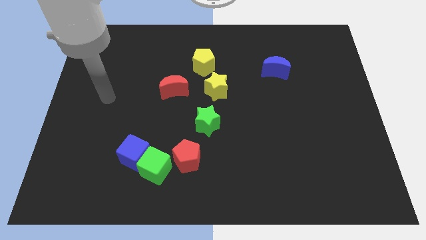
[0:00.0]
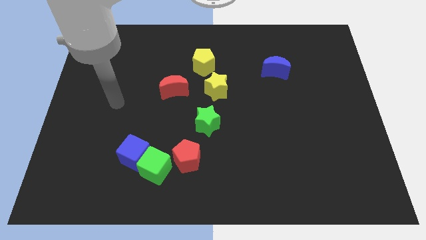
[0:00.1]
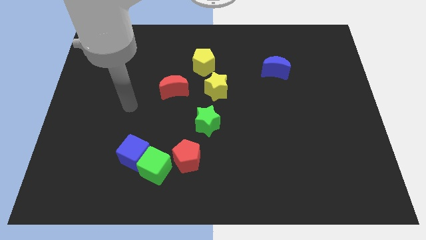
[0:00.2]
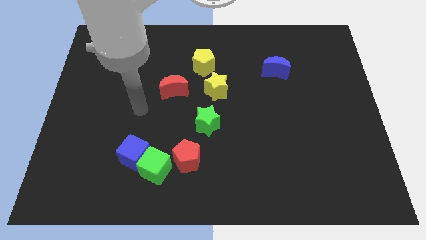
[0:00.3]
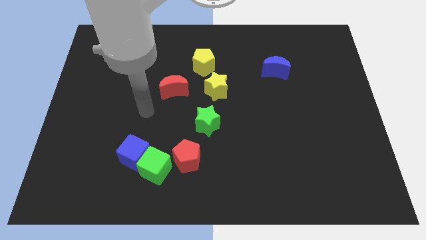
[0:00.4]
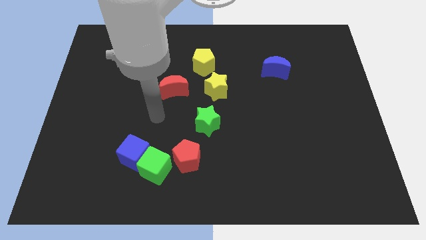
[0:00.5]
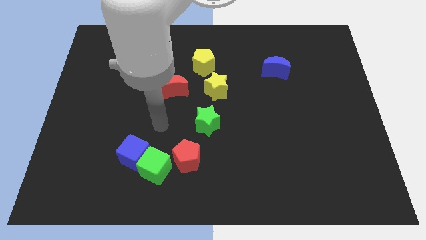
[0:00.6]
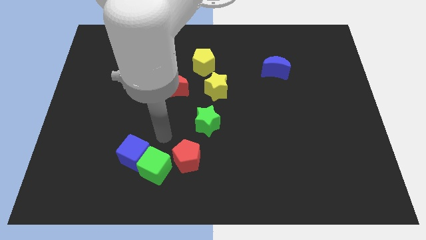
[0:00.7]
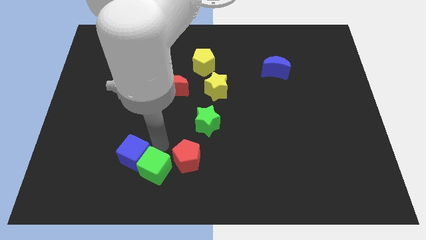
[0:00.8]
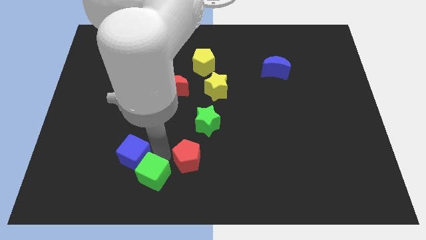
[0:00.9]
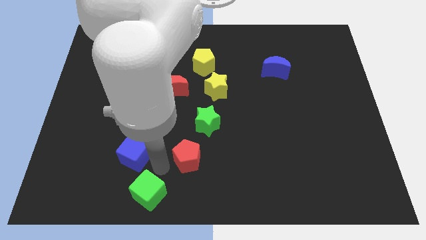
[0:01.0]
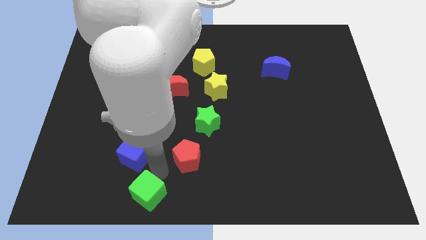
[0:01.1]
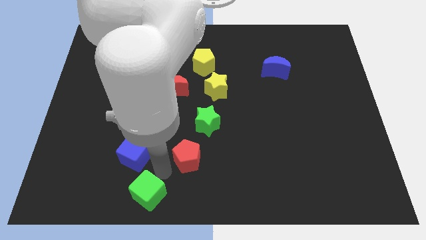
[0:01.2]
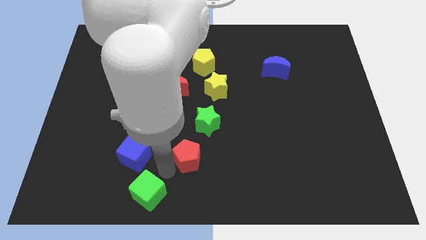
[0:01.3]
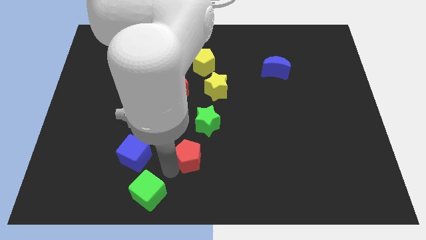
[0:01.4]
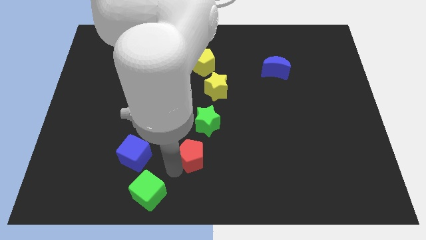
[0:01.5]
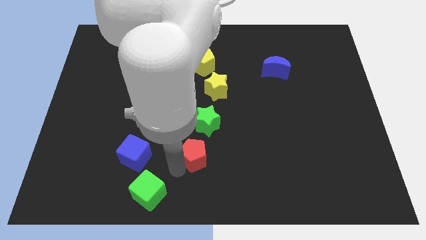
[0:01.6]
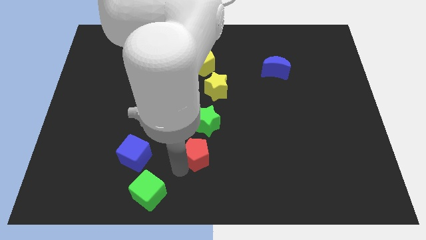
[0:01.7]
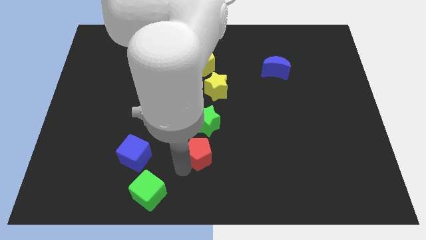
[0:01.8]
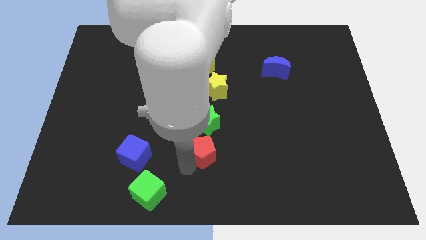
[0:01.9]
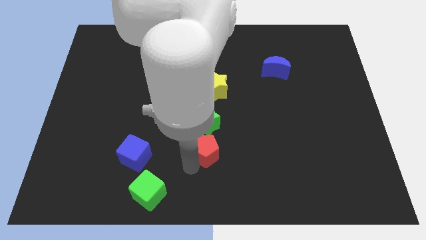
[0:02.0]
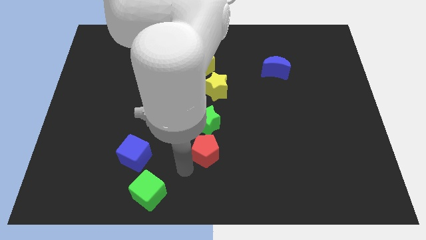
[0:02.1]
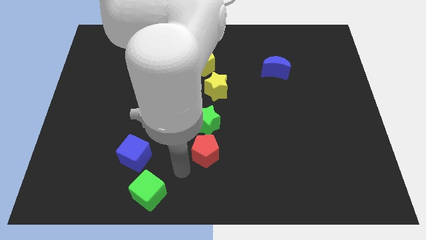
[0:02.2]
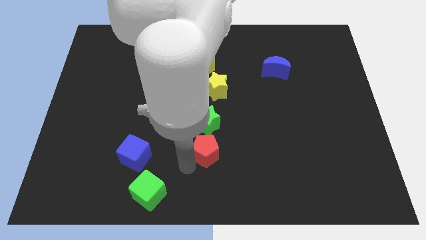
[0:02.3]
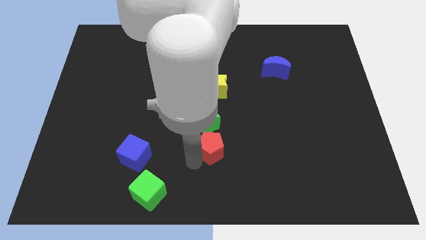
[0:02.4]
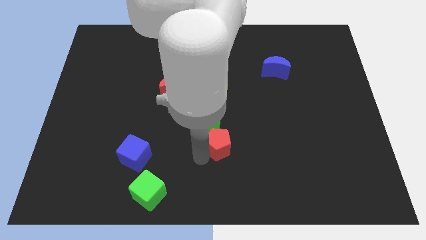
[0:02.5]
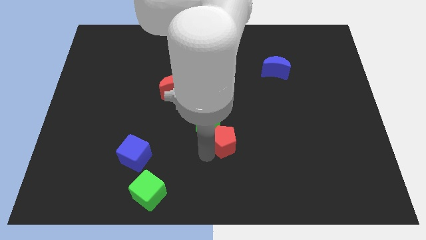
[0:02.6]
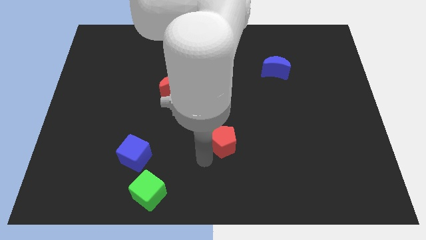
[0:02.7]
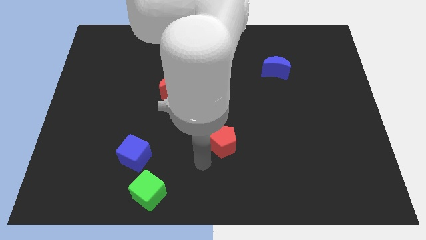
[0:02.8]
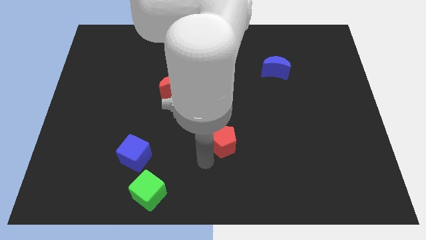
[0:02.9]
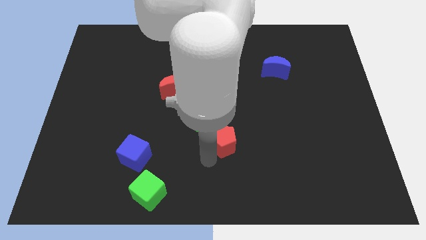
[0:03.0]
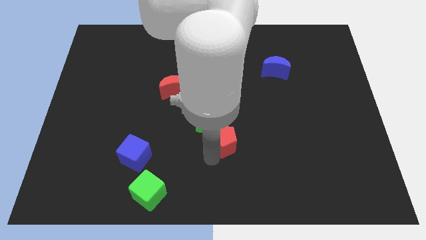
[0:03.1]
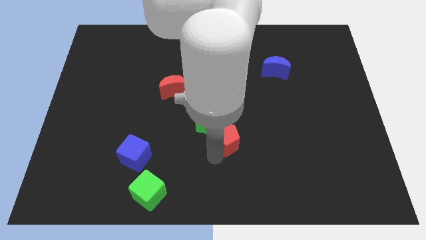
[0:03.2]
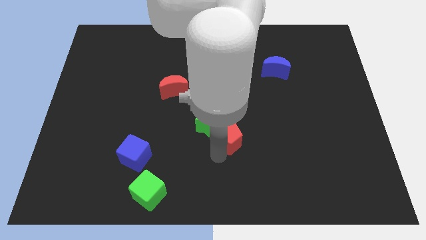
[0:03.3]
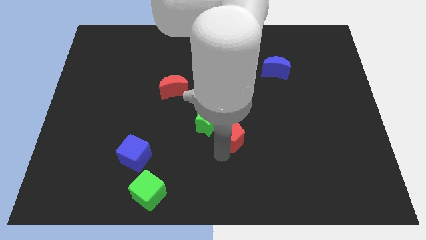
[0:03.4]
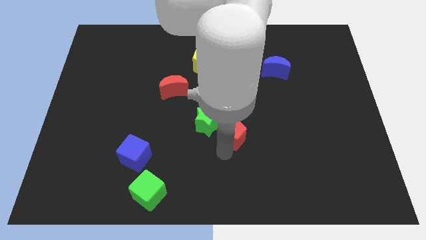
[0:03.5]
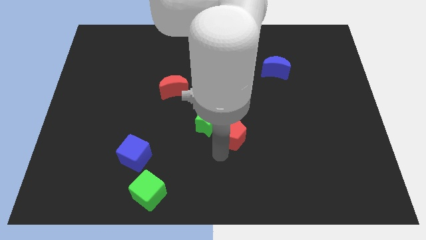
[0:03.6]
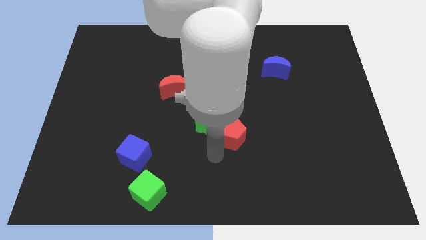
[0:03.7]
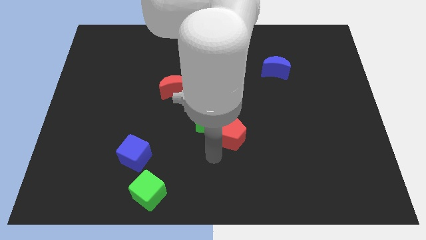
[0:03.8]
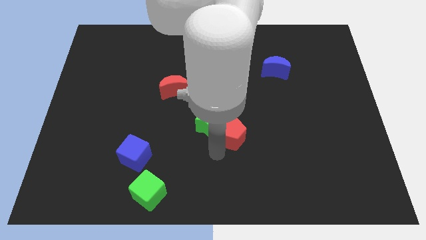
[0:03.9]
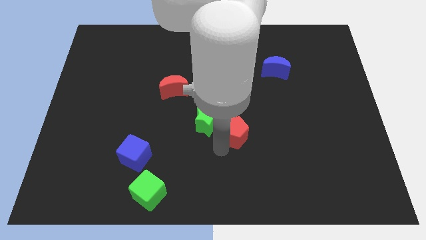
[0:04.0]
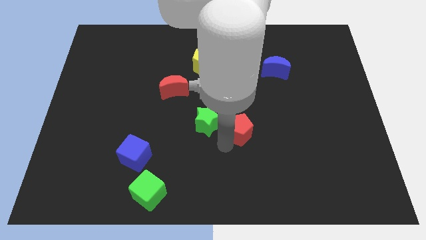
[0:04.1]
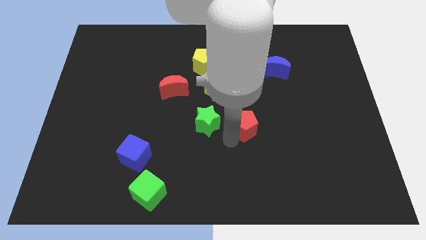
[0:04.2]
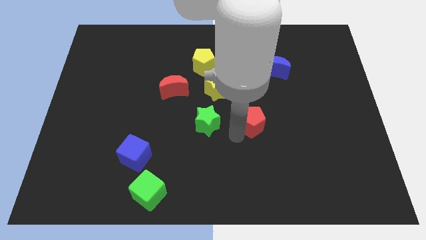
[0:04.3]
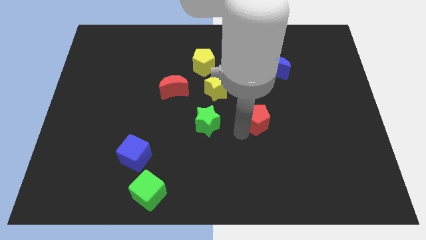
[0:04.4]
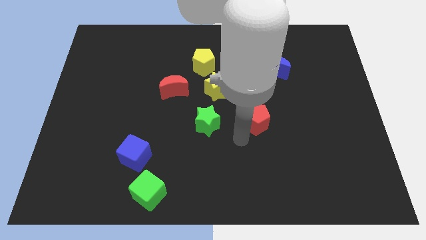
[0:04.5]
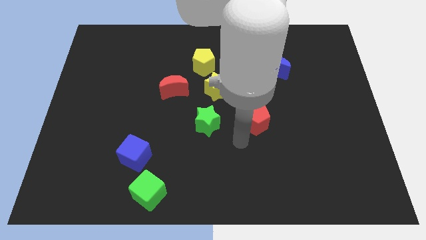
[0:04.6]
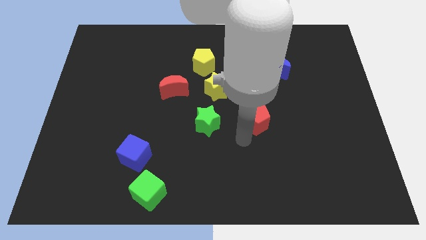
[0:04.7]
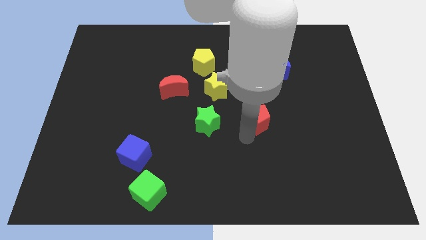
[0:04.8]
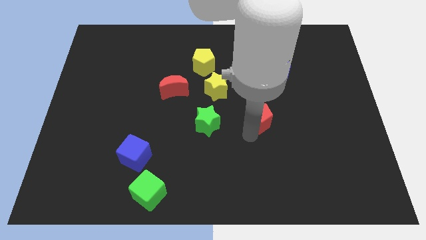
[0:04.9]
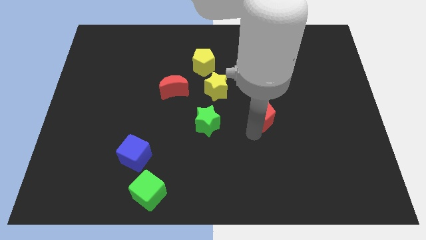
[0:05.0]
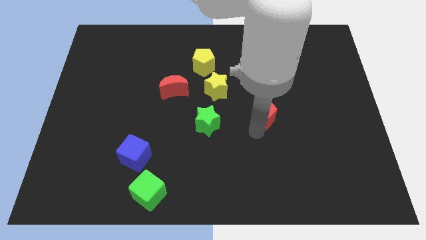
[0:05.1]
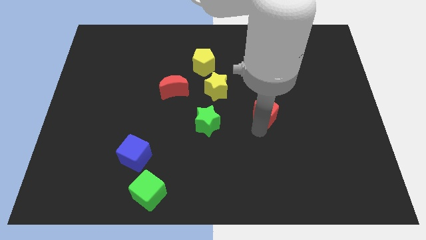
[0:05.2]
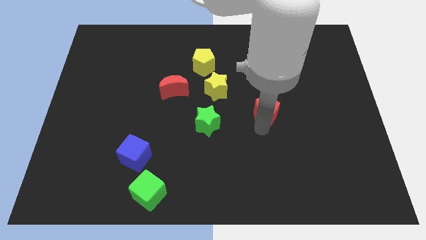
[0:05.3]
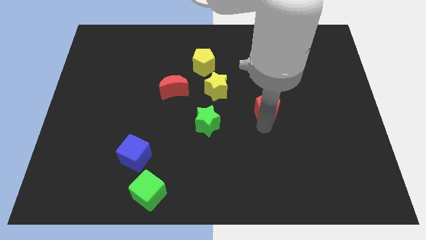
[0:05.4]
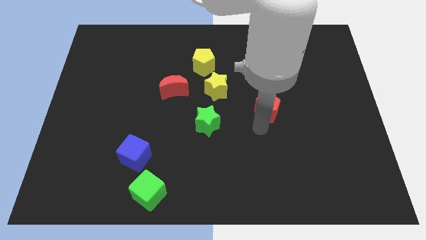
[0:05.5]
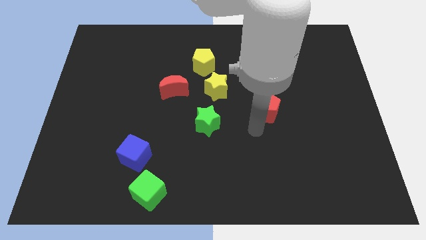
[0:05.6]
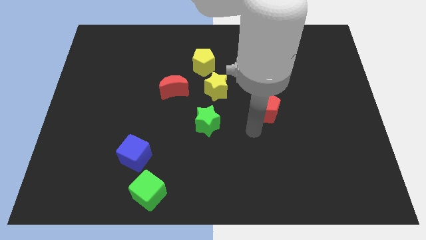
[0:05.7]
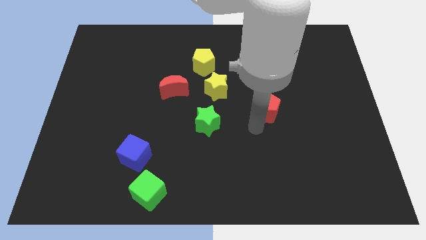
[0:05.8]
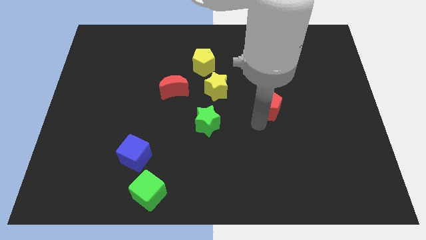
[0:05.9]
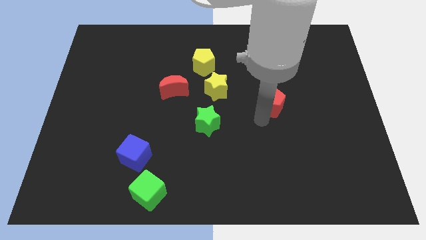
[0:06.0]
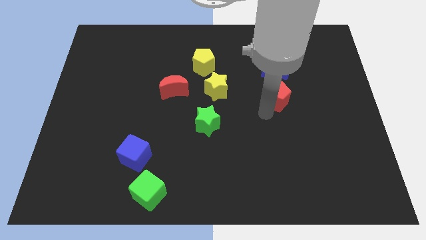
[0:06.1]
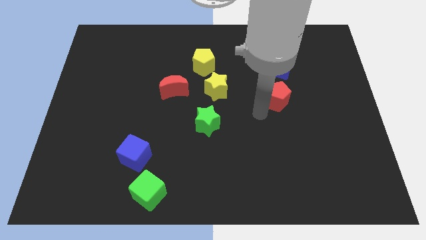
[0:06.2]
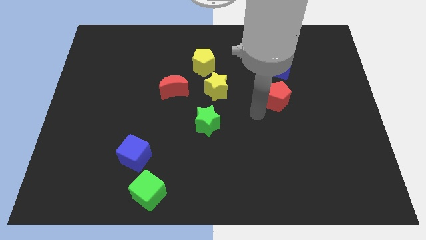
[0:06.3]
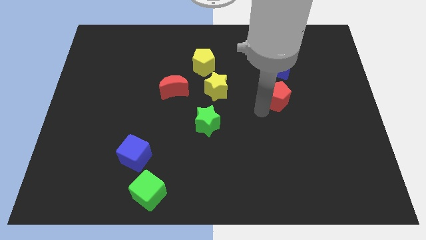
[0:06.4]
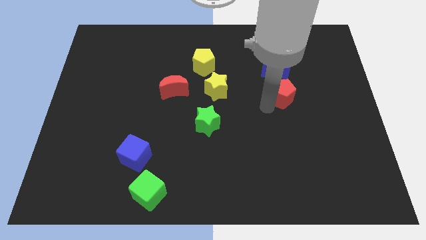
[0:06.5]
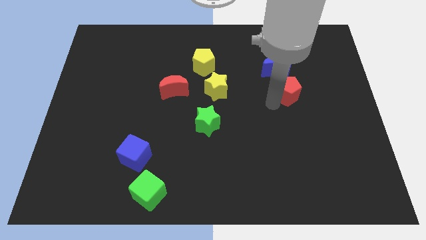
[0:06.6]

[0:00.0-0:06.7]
move the red pentagon to the bottom right of the blue moon
